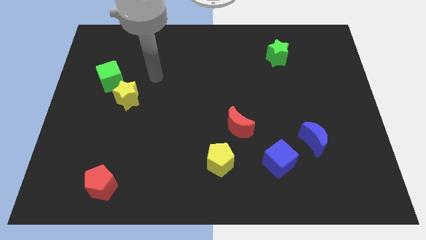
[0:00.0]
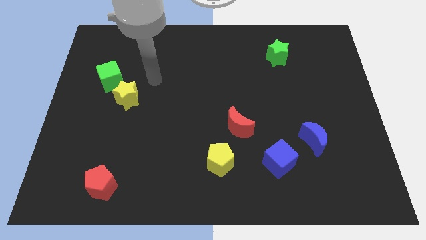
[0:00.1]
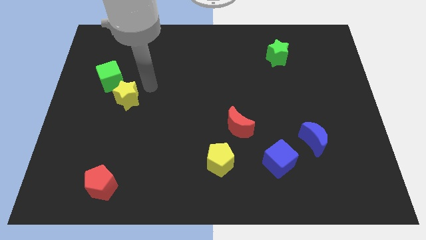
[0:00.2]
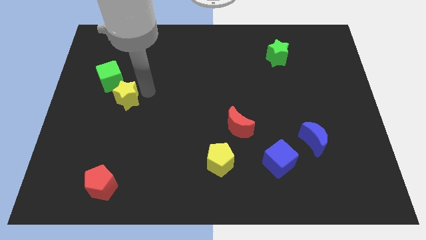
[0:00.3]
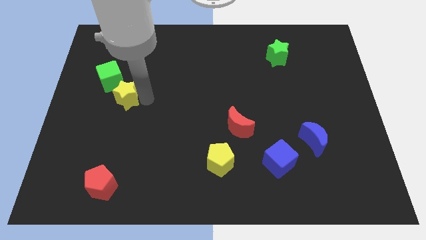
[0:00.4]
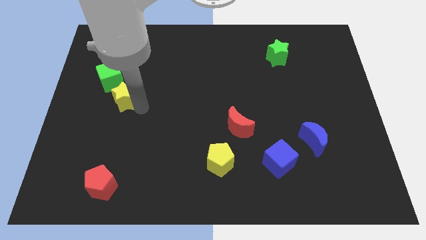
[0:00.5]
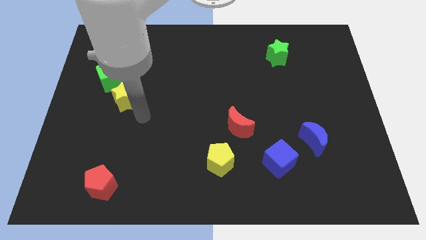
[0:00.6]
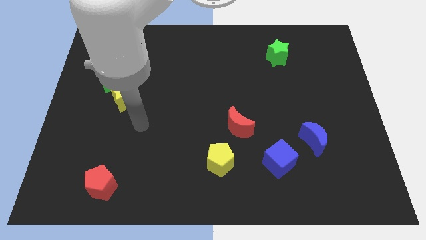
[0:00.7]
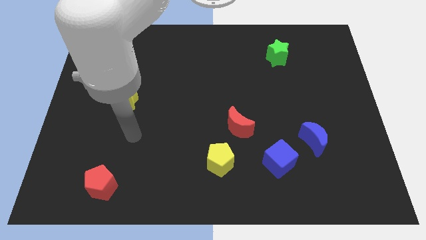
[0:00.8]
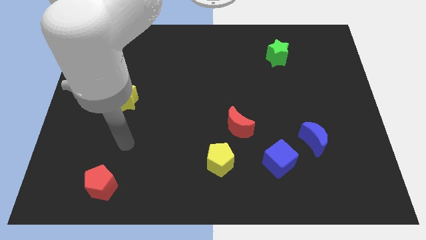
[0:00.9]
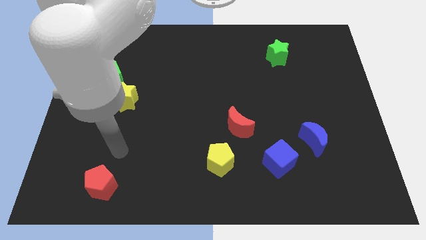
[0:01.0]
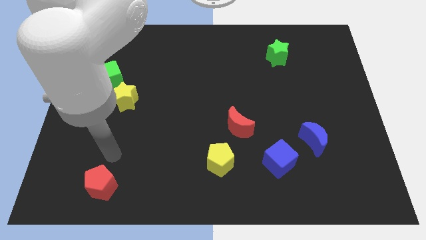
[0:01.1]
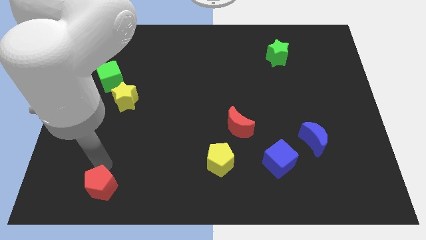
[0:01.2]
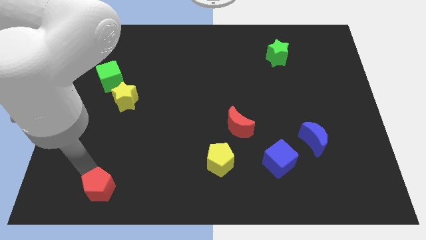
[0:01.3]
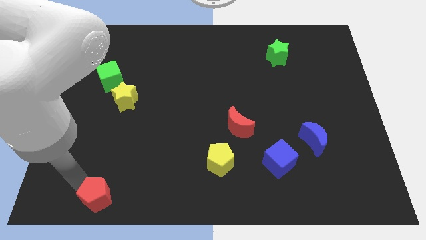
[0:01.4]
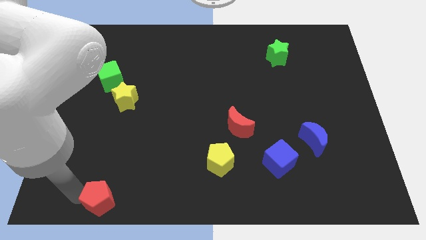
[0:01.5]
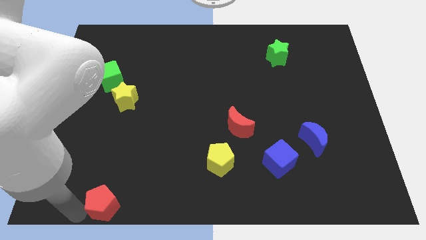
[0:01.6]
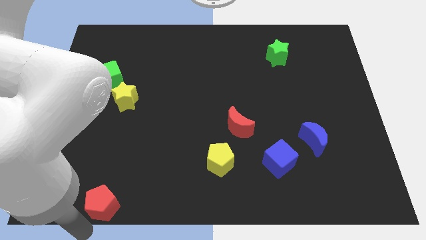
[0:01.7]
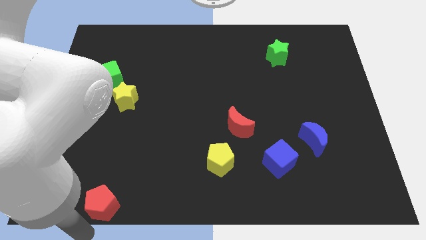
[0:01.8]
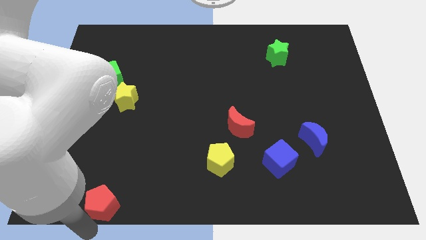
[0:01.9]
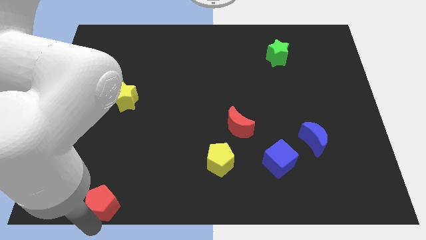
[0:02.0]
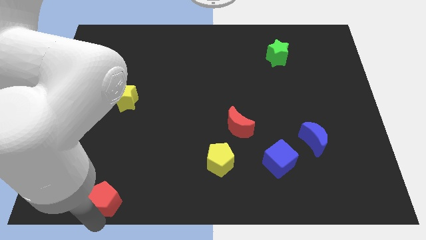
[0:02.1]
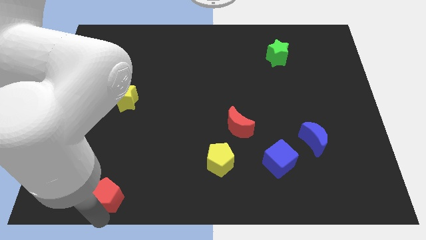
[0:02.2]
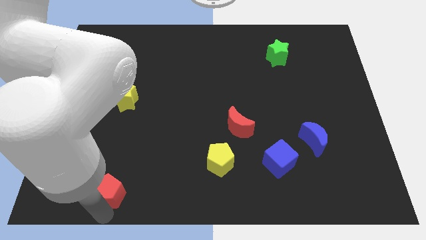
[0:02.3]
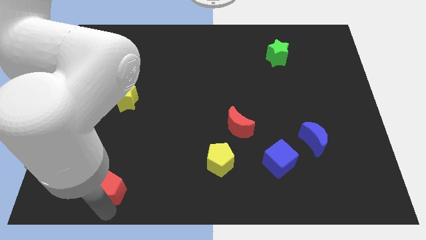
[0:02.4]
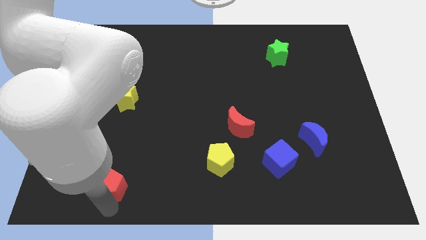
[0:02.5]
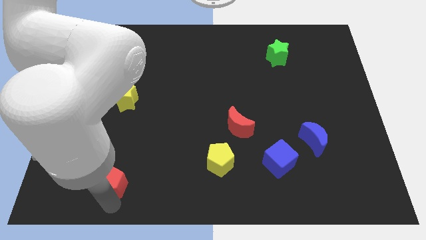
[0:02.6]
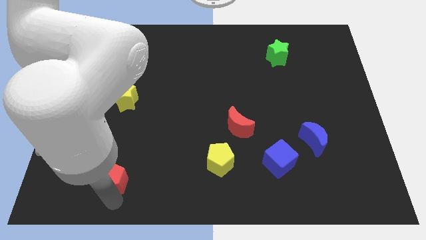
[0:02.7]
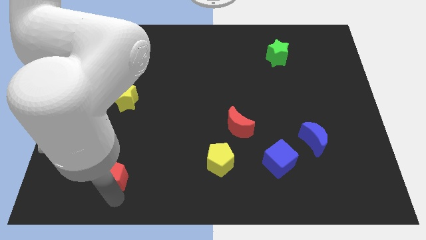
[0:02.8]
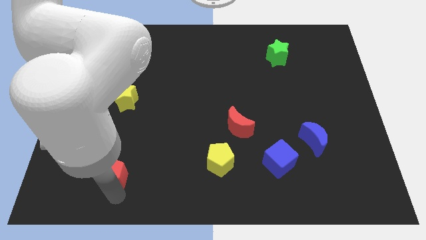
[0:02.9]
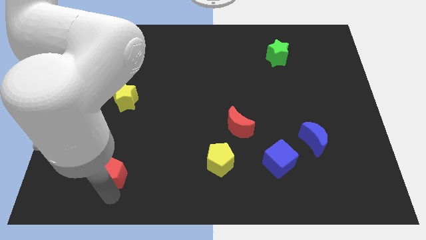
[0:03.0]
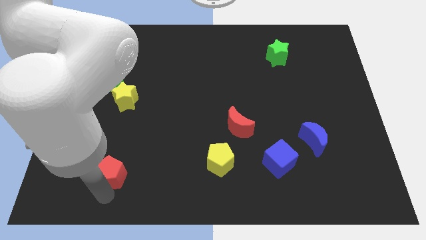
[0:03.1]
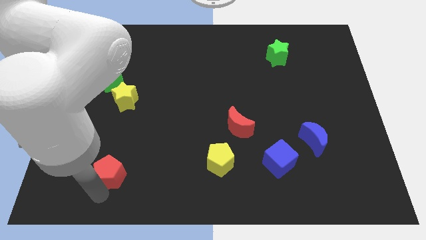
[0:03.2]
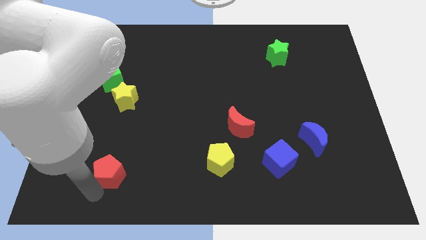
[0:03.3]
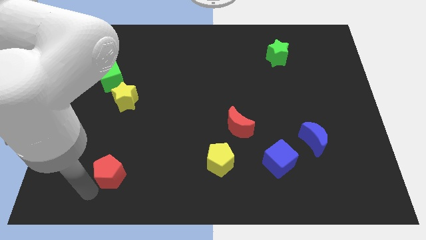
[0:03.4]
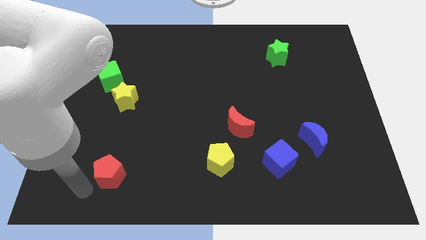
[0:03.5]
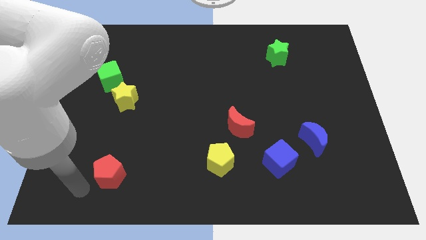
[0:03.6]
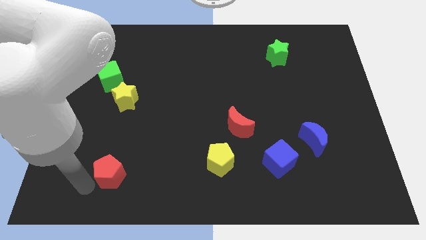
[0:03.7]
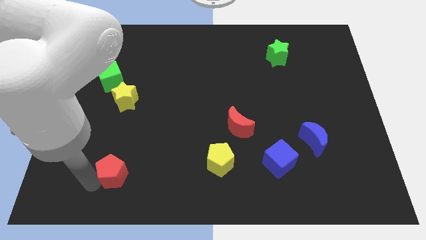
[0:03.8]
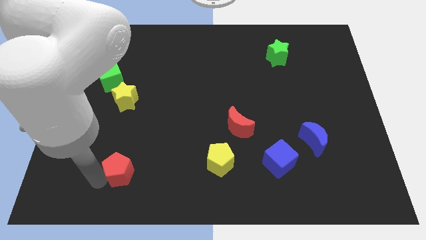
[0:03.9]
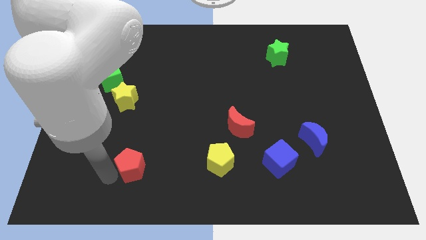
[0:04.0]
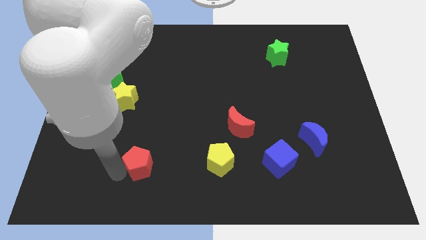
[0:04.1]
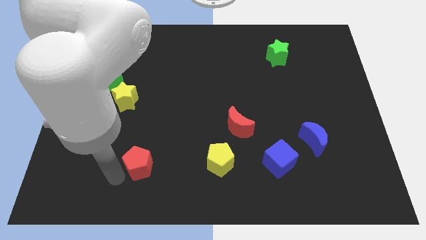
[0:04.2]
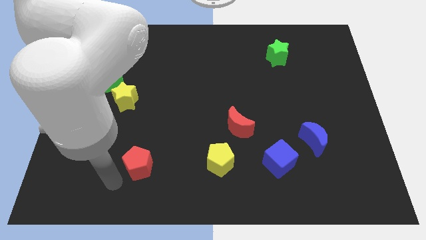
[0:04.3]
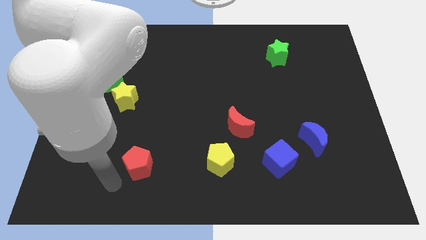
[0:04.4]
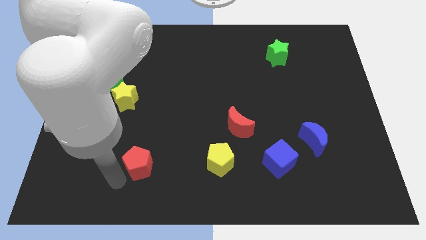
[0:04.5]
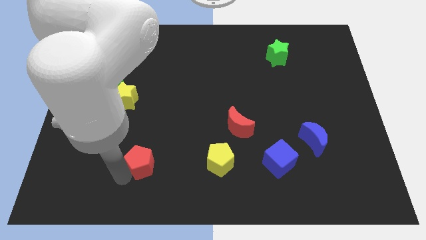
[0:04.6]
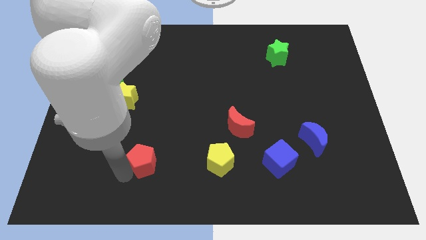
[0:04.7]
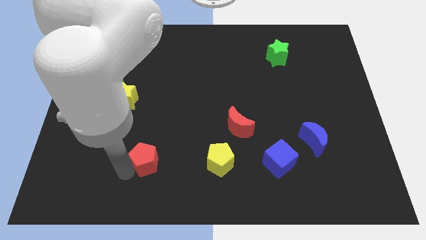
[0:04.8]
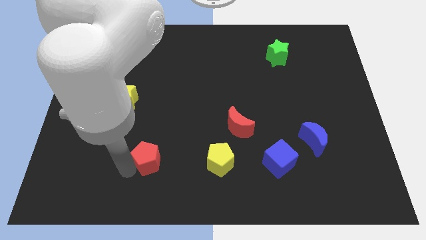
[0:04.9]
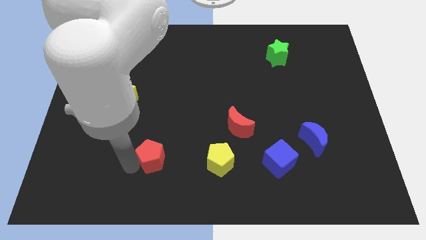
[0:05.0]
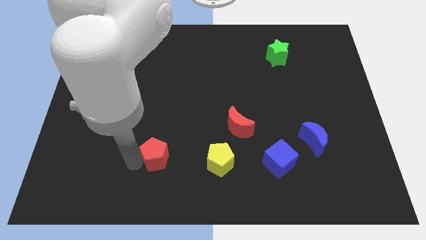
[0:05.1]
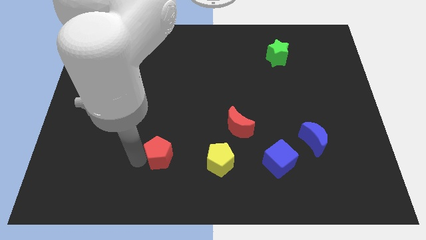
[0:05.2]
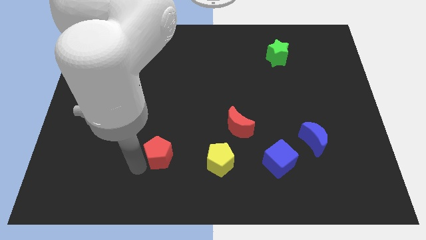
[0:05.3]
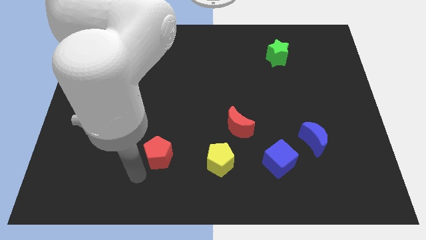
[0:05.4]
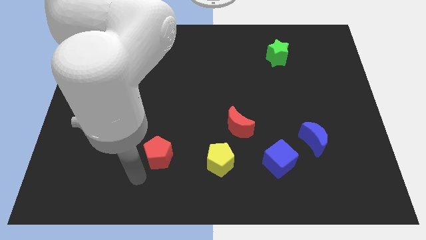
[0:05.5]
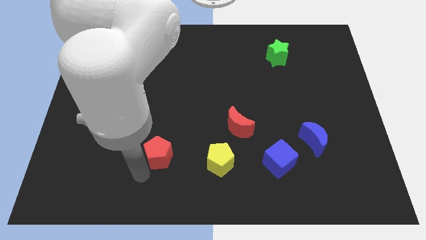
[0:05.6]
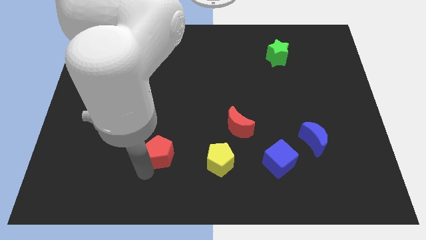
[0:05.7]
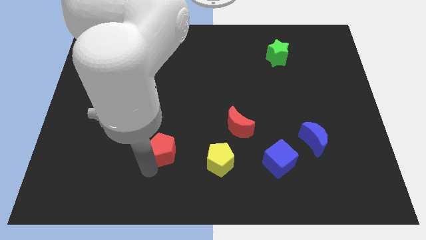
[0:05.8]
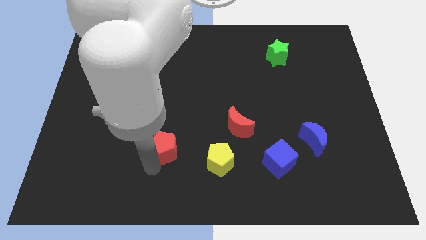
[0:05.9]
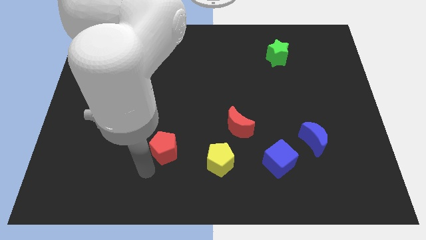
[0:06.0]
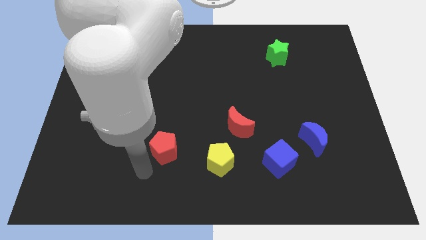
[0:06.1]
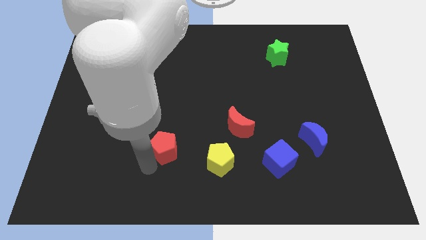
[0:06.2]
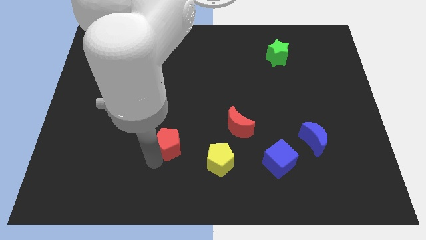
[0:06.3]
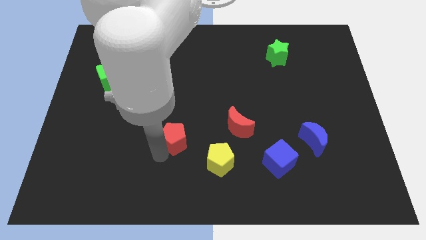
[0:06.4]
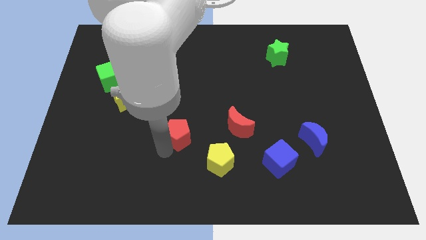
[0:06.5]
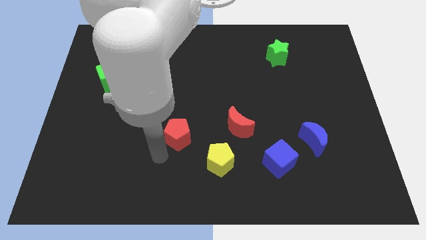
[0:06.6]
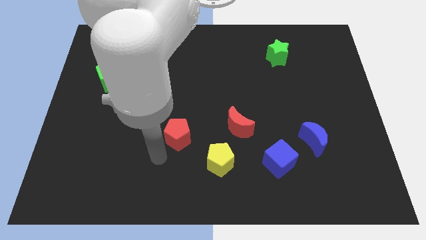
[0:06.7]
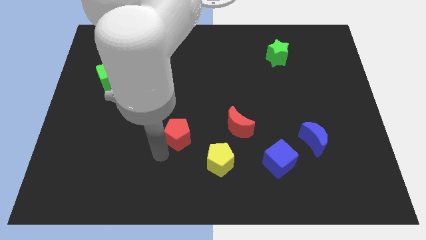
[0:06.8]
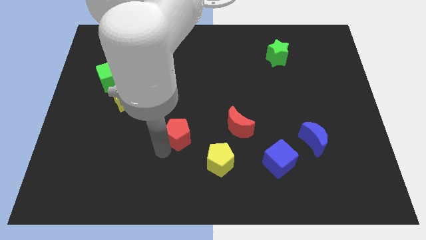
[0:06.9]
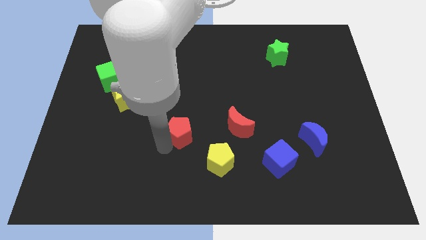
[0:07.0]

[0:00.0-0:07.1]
push the red pentagon to the center

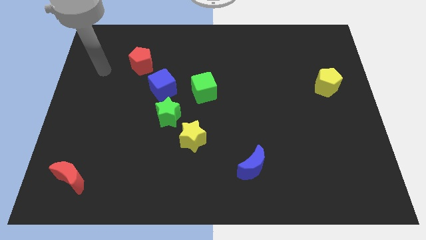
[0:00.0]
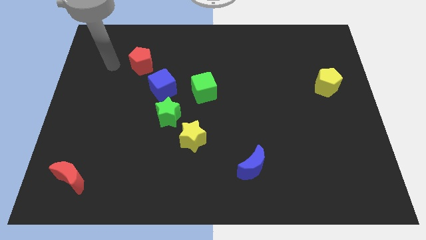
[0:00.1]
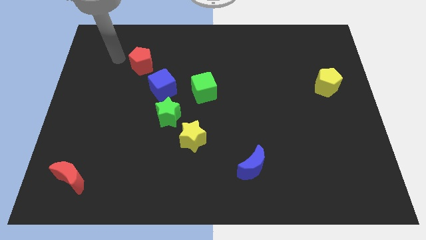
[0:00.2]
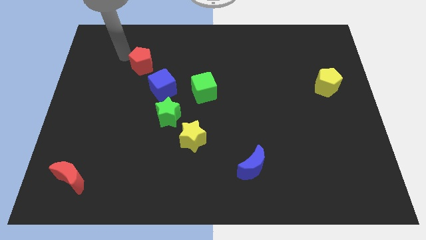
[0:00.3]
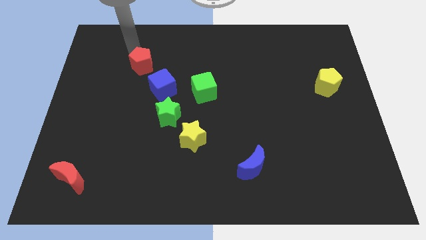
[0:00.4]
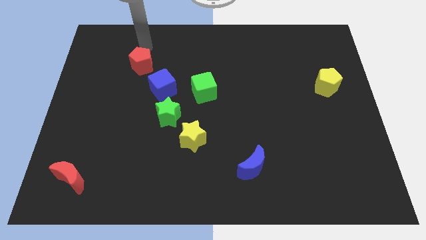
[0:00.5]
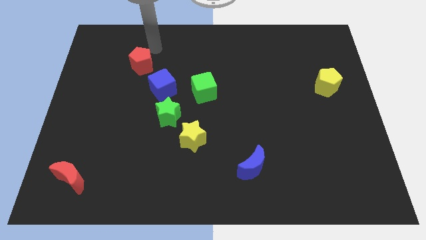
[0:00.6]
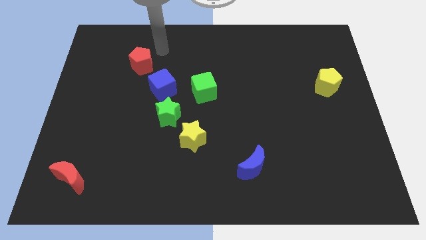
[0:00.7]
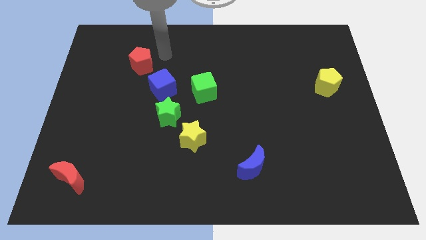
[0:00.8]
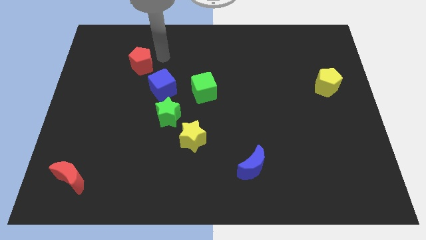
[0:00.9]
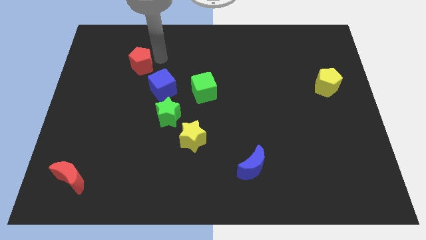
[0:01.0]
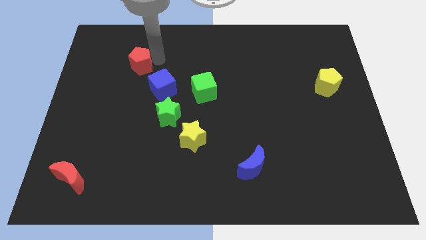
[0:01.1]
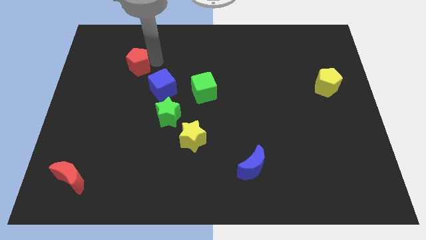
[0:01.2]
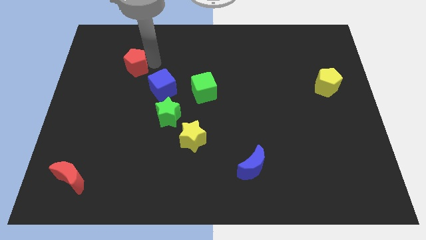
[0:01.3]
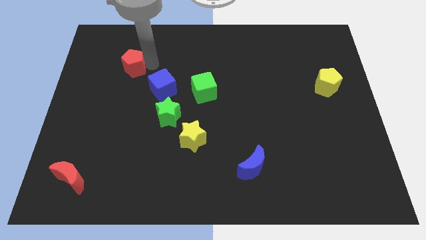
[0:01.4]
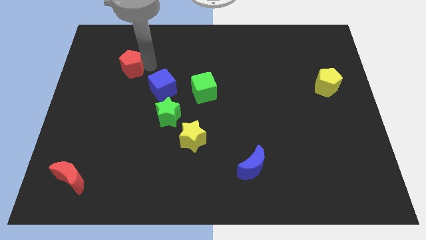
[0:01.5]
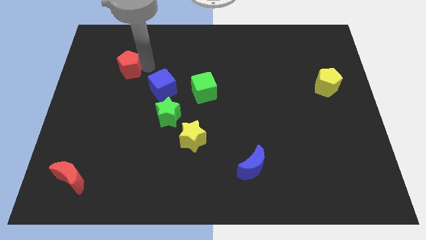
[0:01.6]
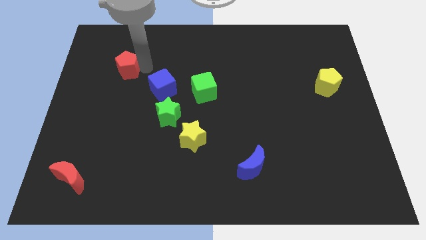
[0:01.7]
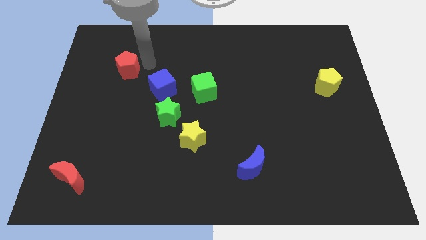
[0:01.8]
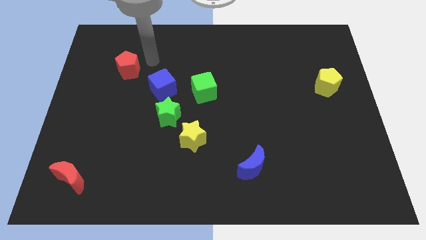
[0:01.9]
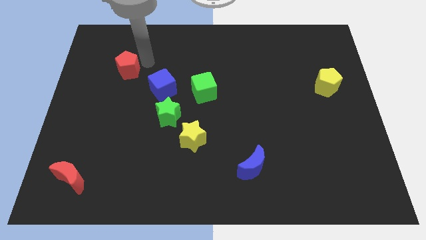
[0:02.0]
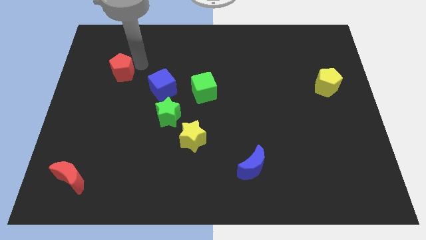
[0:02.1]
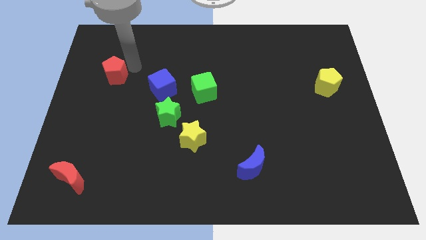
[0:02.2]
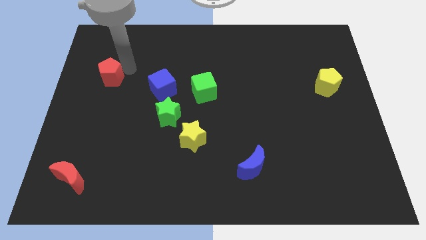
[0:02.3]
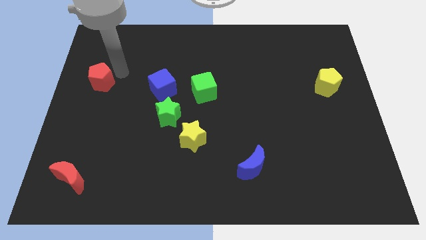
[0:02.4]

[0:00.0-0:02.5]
put the red pentagon to the center left
